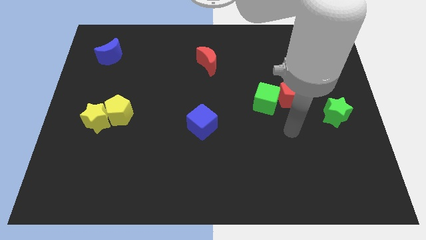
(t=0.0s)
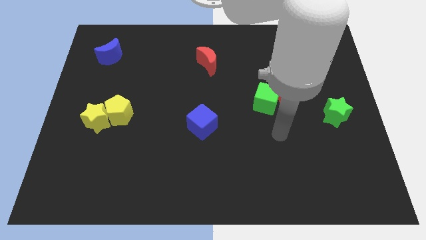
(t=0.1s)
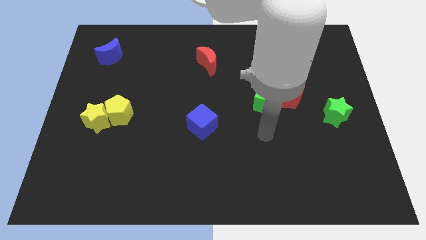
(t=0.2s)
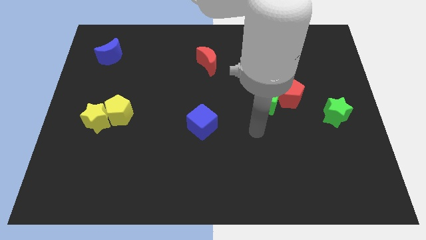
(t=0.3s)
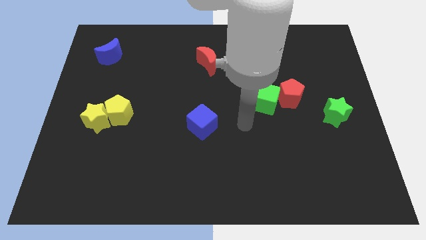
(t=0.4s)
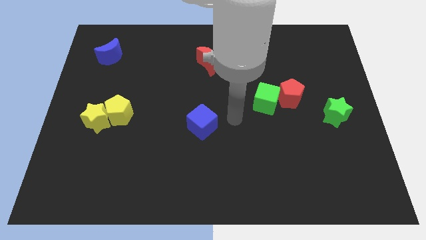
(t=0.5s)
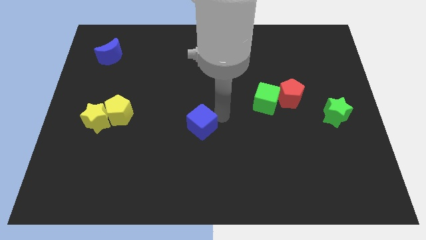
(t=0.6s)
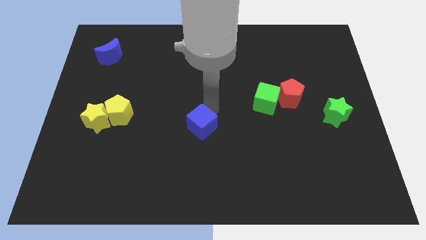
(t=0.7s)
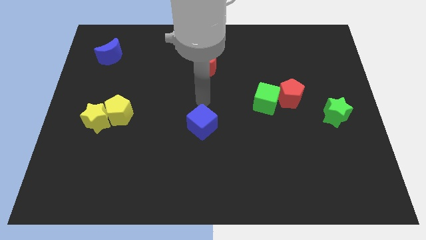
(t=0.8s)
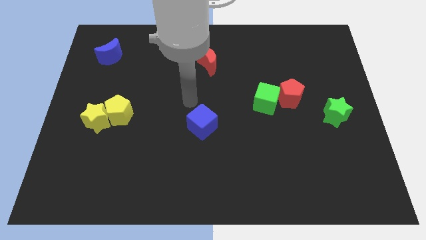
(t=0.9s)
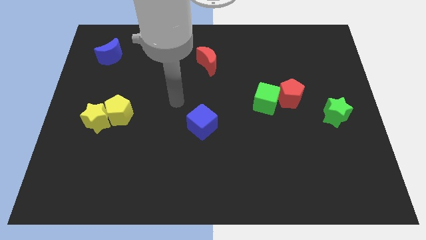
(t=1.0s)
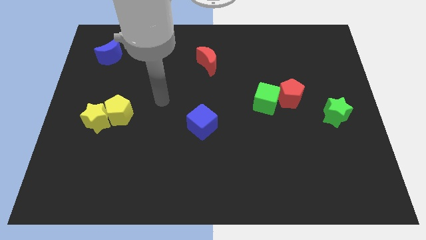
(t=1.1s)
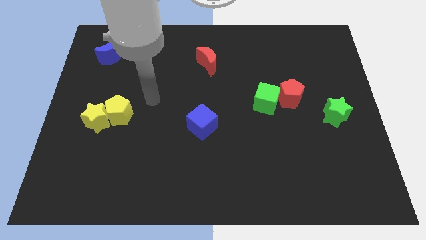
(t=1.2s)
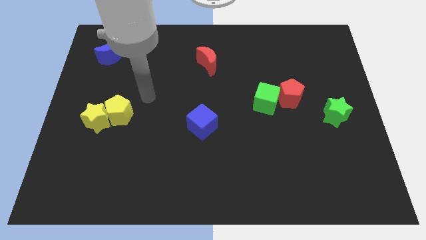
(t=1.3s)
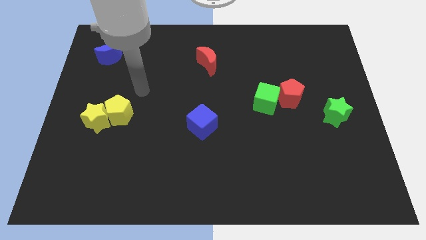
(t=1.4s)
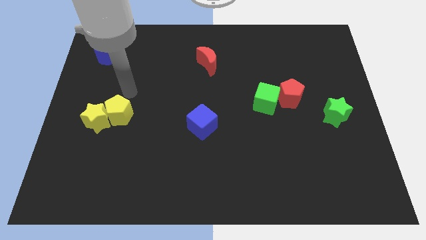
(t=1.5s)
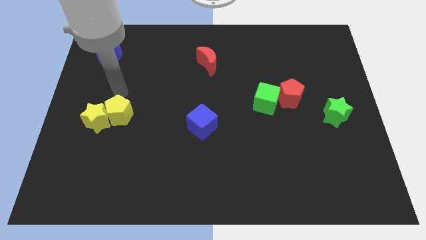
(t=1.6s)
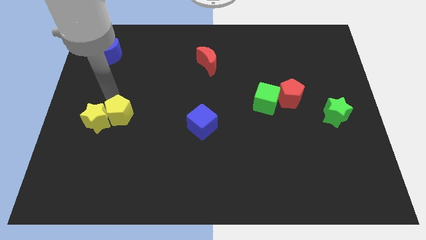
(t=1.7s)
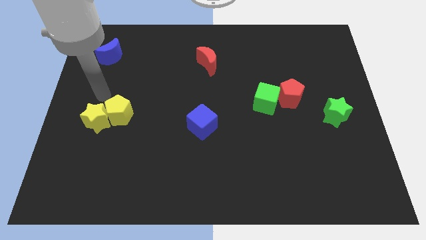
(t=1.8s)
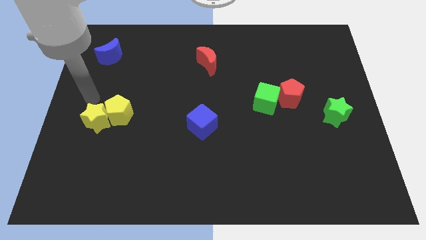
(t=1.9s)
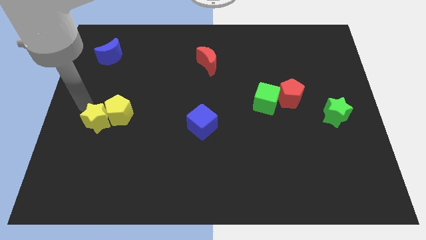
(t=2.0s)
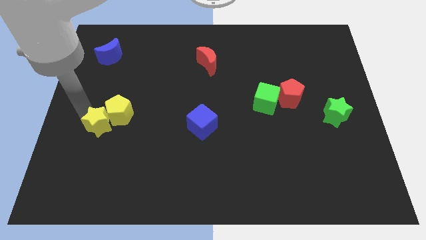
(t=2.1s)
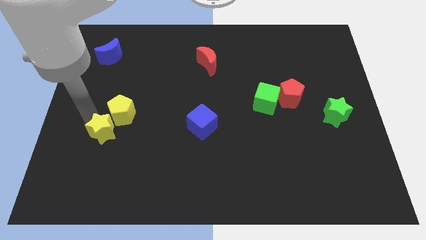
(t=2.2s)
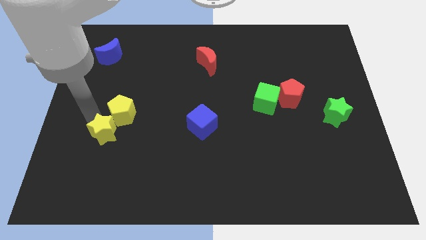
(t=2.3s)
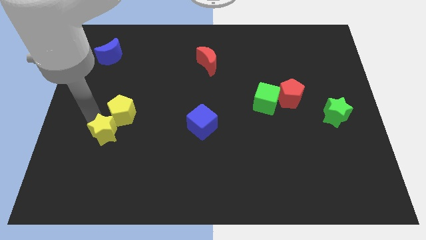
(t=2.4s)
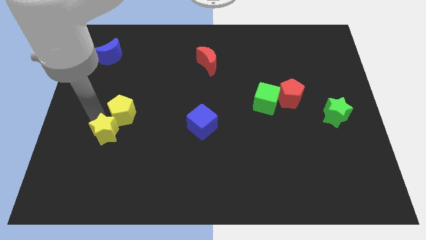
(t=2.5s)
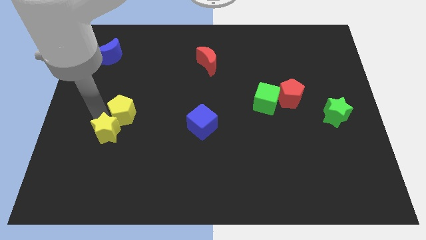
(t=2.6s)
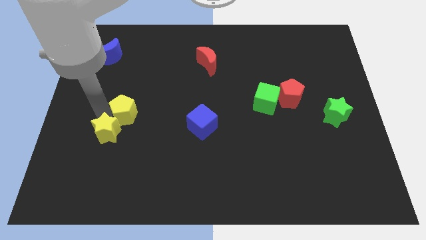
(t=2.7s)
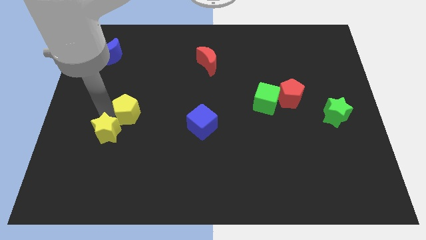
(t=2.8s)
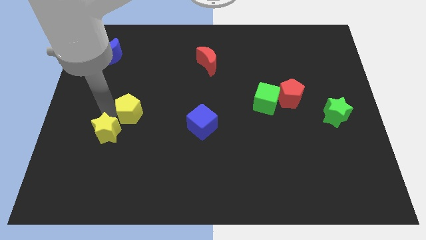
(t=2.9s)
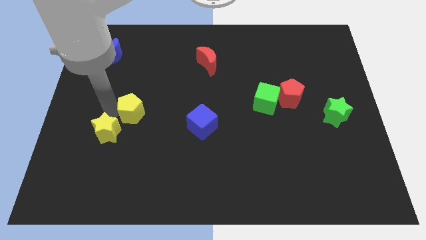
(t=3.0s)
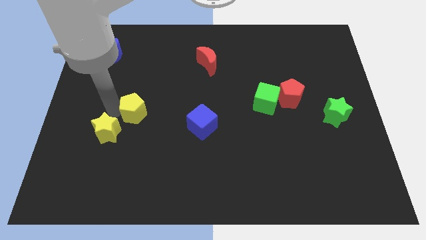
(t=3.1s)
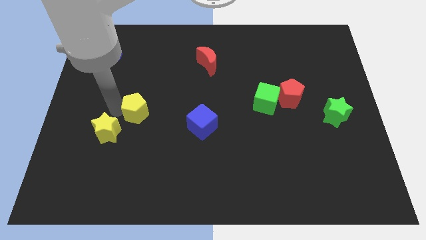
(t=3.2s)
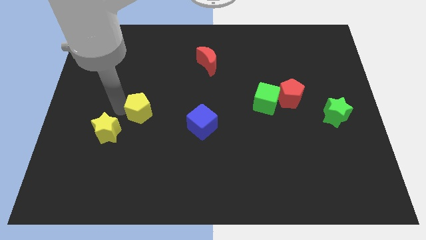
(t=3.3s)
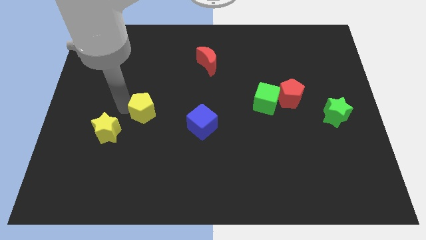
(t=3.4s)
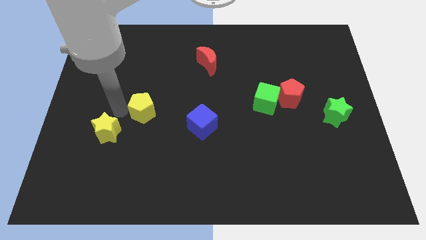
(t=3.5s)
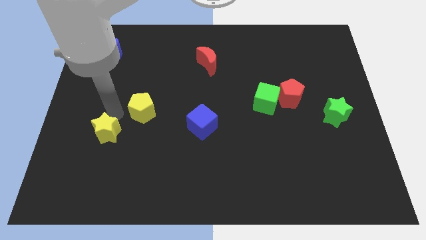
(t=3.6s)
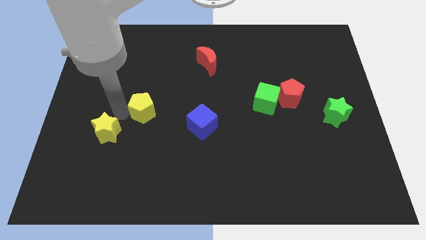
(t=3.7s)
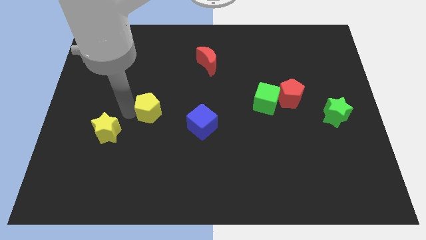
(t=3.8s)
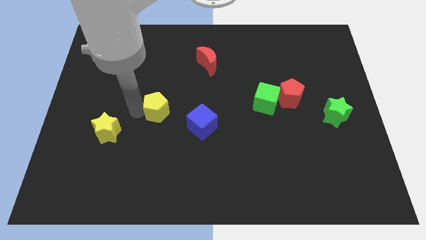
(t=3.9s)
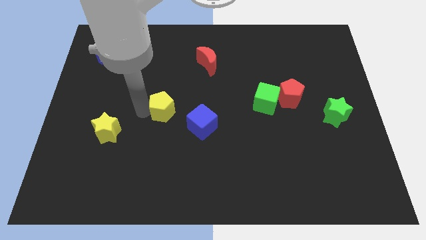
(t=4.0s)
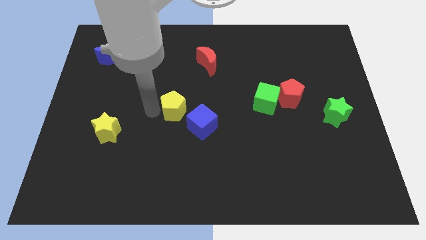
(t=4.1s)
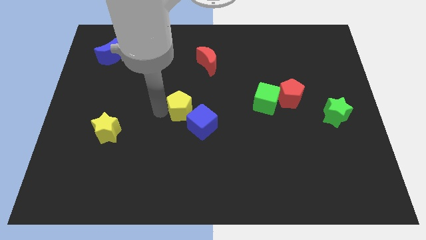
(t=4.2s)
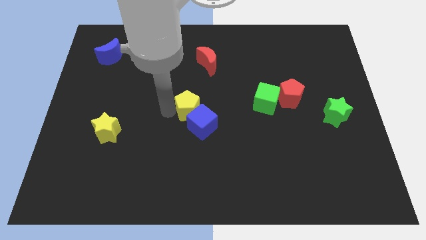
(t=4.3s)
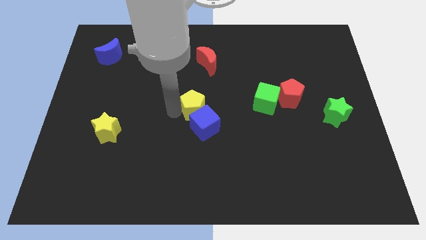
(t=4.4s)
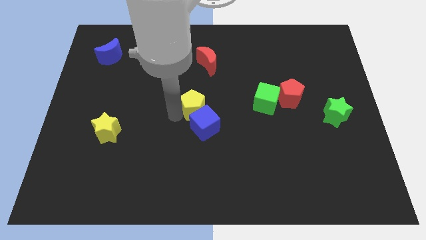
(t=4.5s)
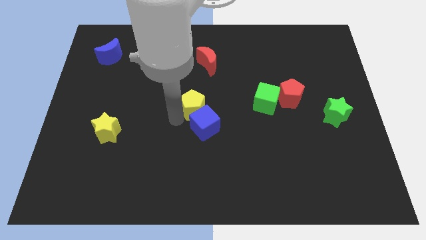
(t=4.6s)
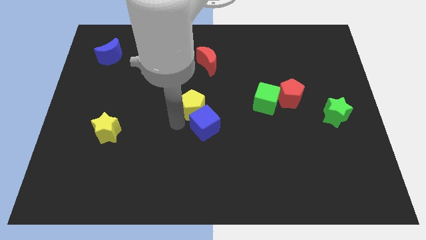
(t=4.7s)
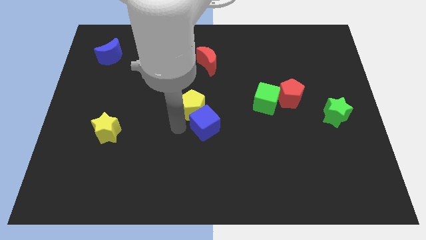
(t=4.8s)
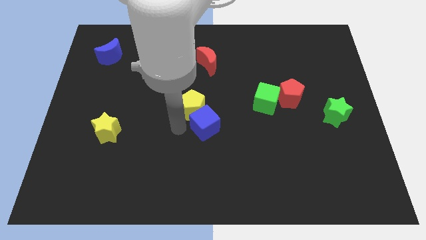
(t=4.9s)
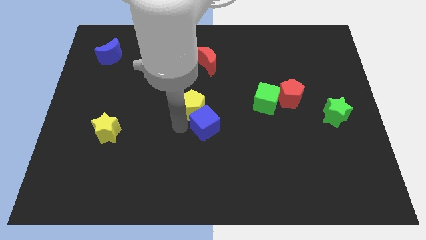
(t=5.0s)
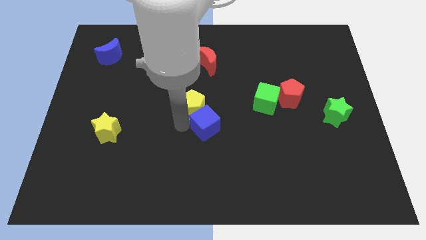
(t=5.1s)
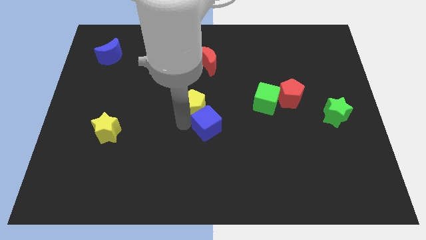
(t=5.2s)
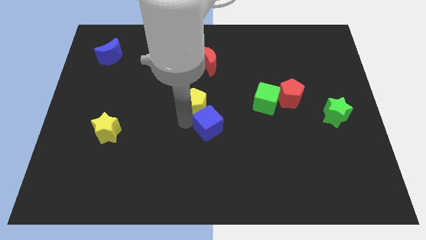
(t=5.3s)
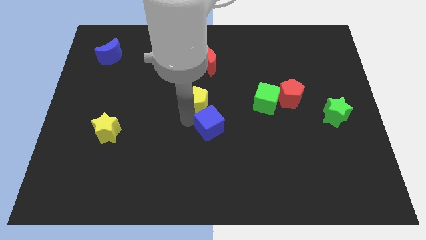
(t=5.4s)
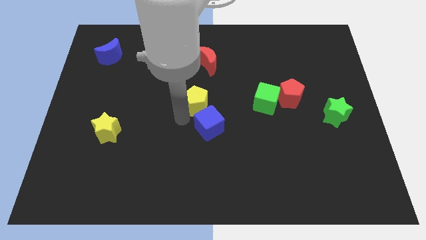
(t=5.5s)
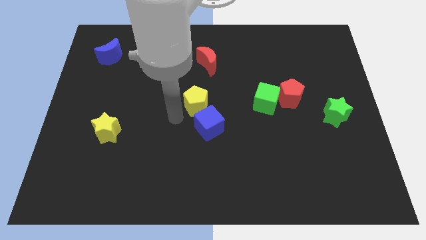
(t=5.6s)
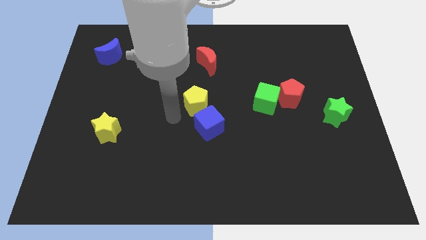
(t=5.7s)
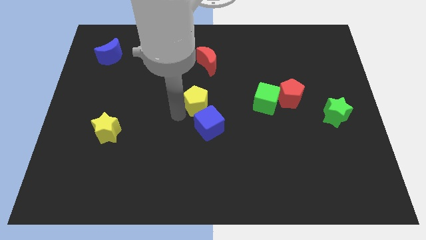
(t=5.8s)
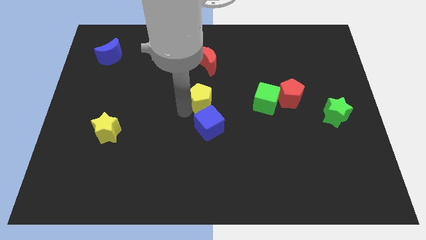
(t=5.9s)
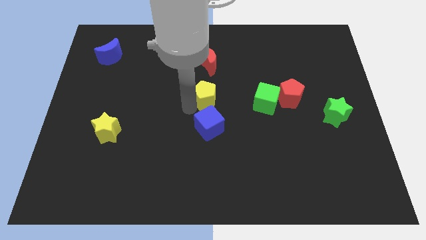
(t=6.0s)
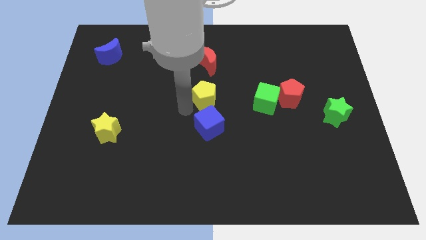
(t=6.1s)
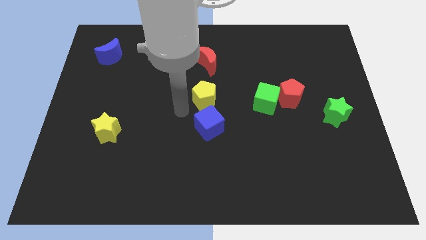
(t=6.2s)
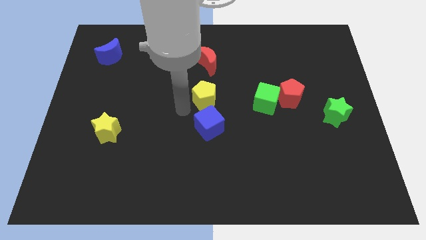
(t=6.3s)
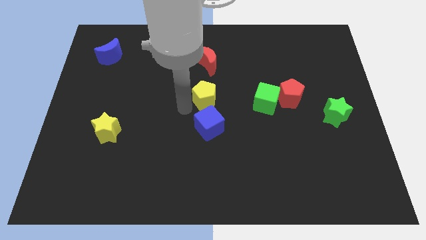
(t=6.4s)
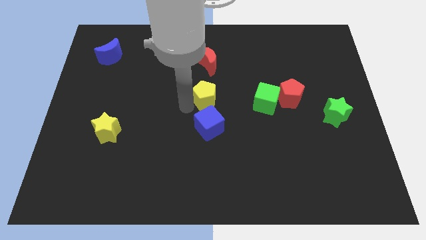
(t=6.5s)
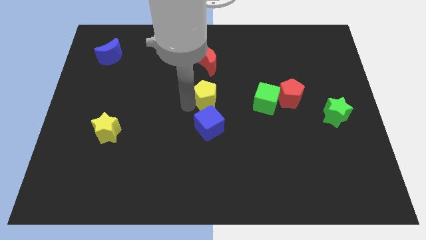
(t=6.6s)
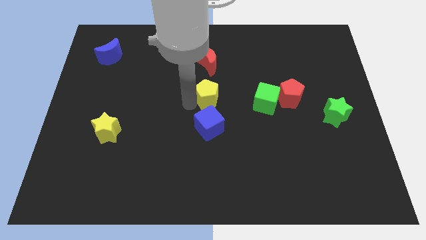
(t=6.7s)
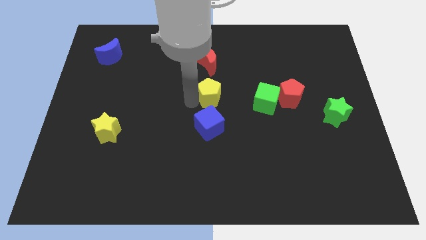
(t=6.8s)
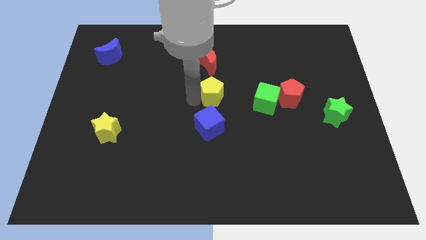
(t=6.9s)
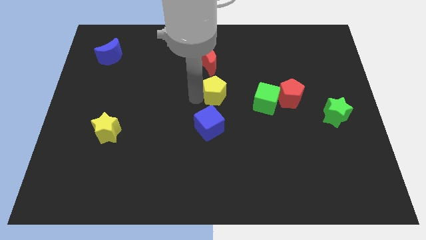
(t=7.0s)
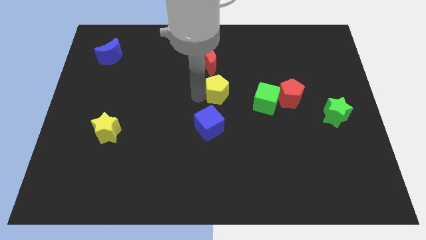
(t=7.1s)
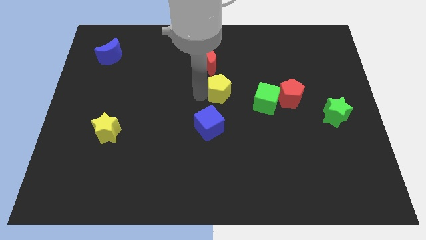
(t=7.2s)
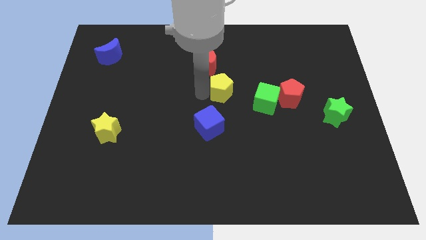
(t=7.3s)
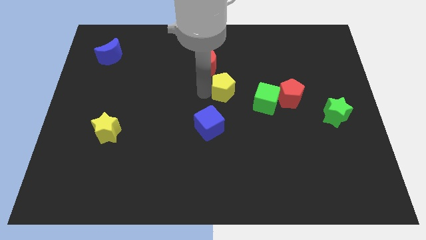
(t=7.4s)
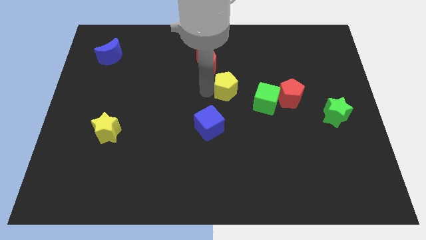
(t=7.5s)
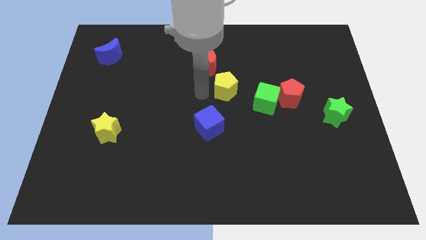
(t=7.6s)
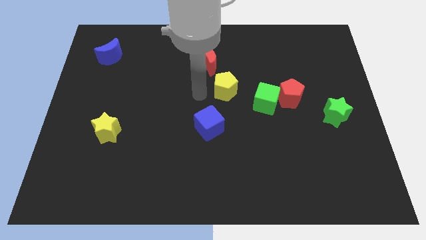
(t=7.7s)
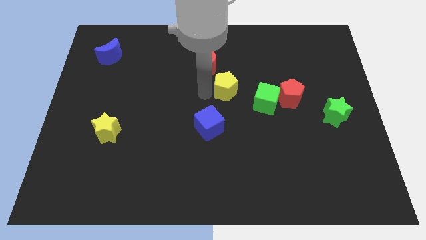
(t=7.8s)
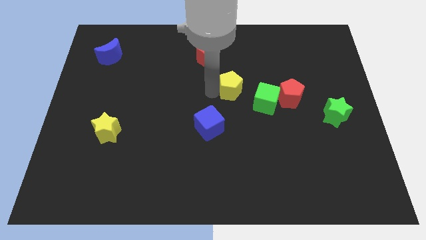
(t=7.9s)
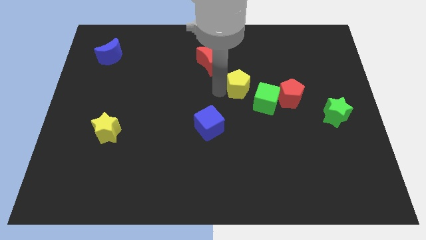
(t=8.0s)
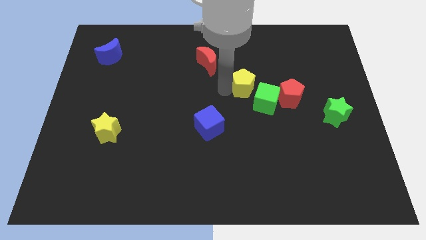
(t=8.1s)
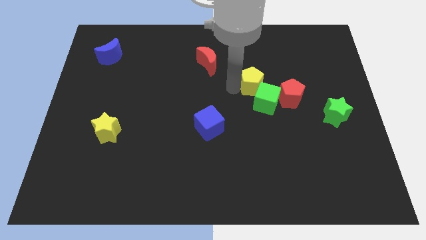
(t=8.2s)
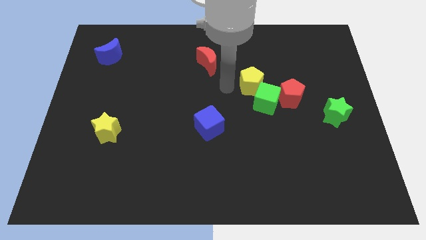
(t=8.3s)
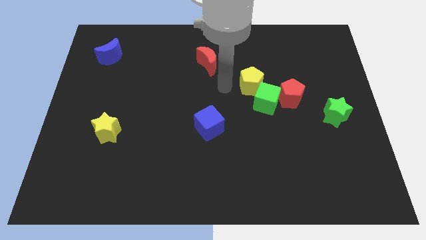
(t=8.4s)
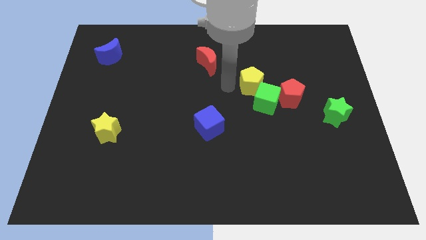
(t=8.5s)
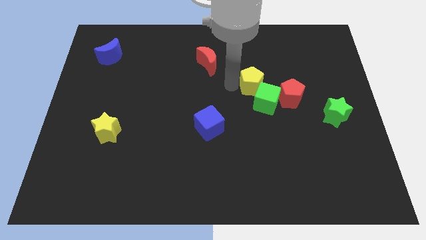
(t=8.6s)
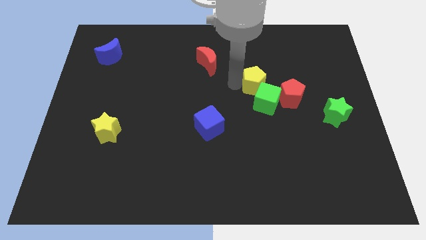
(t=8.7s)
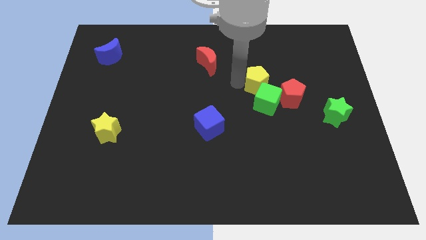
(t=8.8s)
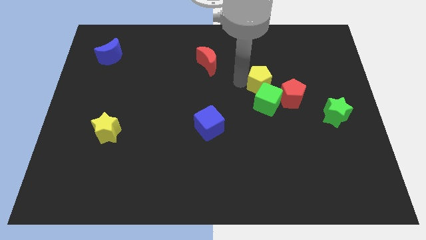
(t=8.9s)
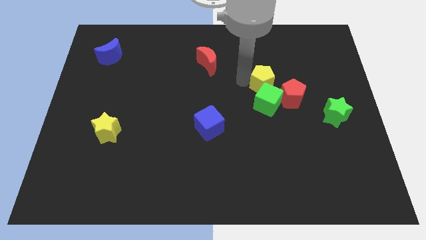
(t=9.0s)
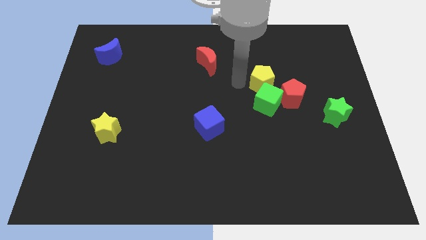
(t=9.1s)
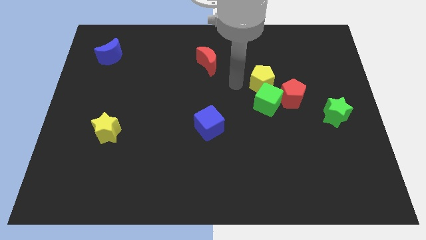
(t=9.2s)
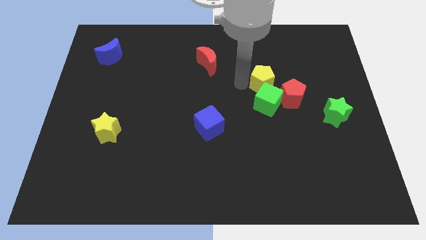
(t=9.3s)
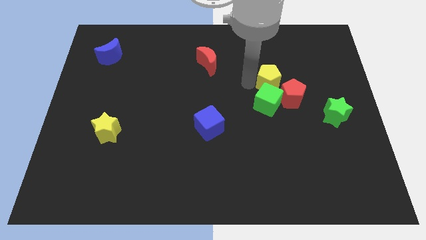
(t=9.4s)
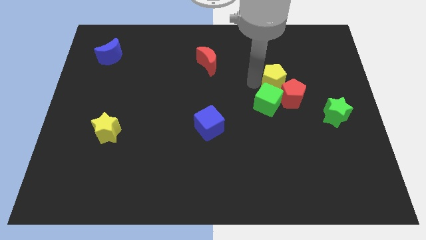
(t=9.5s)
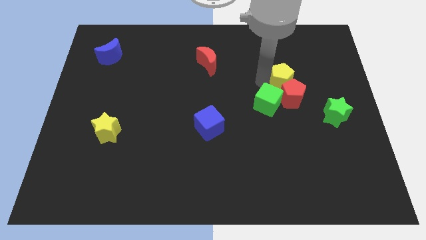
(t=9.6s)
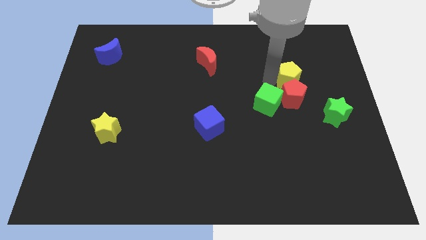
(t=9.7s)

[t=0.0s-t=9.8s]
push the yellow pentagon to the top right side of the red pentagon
